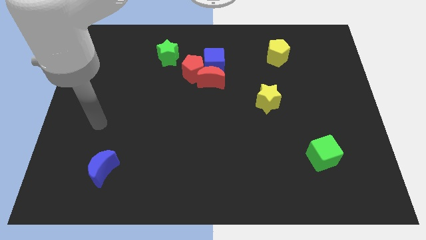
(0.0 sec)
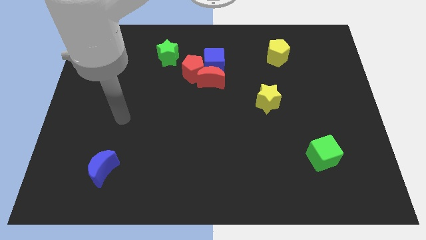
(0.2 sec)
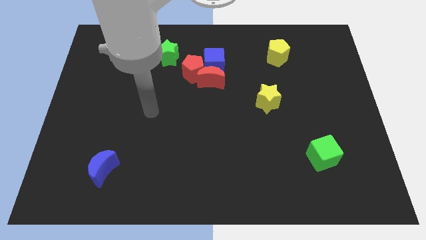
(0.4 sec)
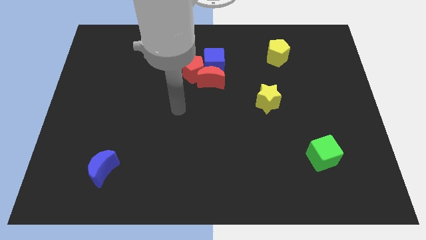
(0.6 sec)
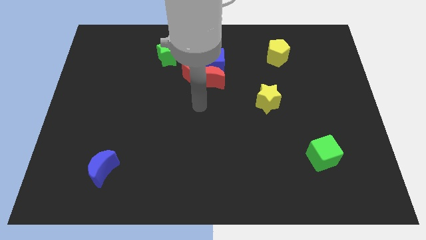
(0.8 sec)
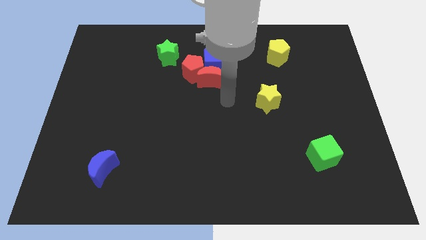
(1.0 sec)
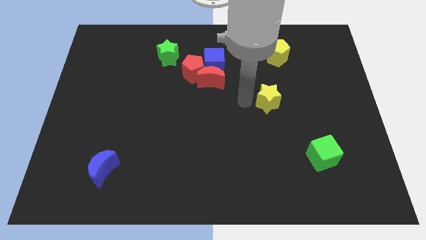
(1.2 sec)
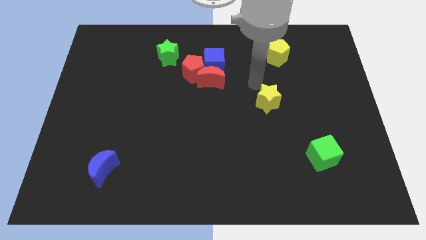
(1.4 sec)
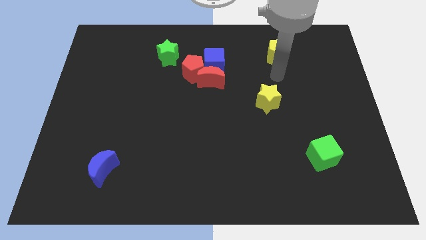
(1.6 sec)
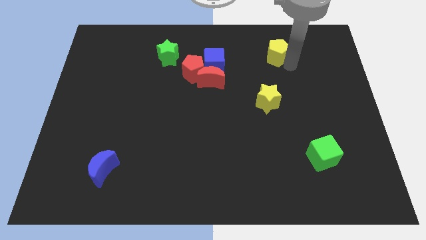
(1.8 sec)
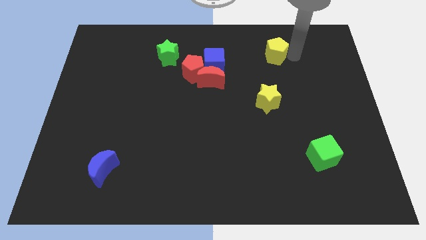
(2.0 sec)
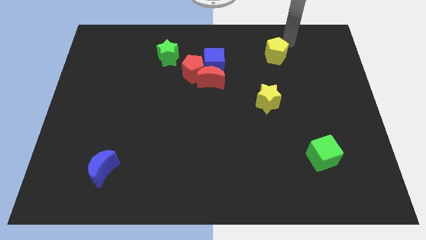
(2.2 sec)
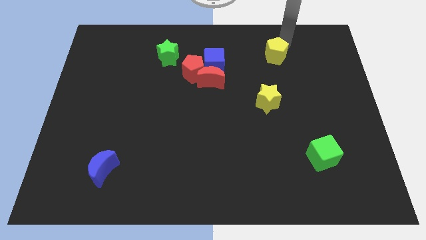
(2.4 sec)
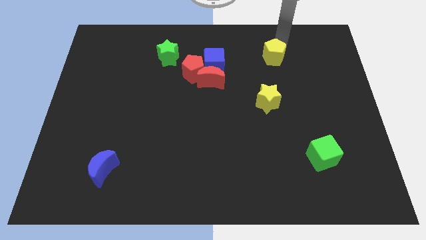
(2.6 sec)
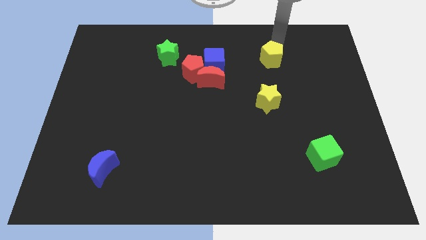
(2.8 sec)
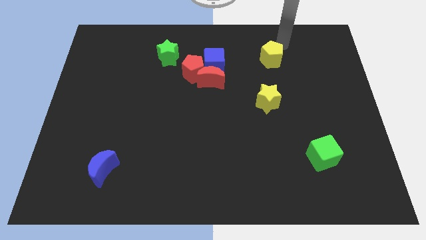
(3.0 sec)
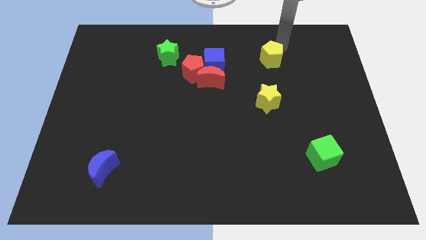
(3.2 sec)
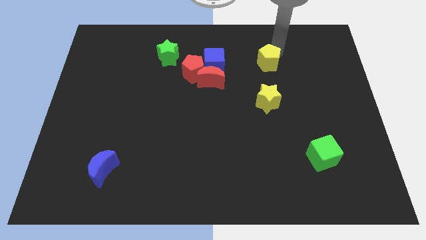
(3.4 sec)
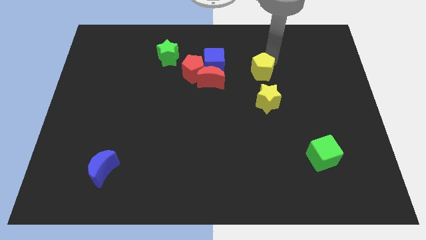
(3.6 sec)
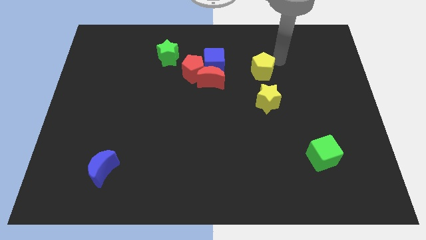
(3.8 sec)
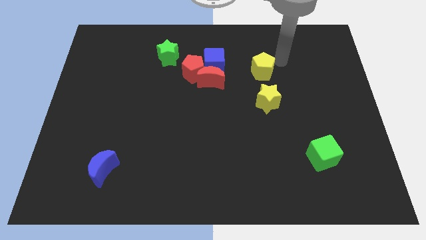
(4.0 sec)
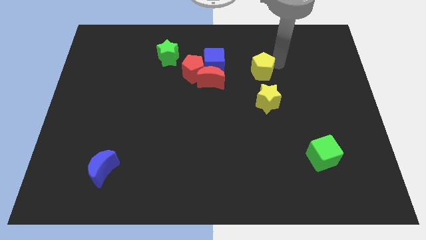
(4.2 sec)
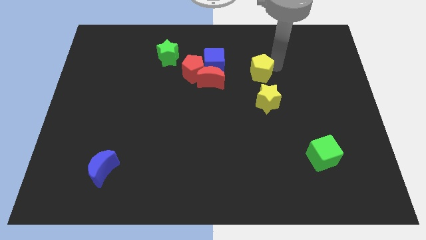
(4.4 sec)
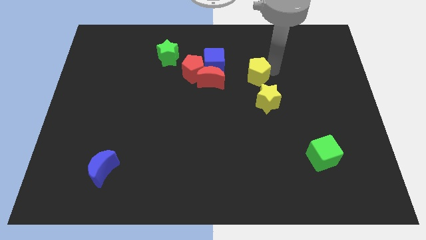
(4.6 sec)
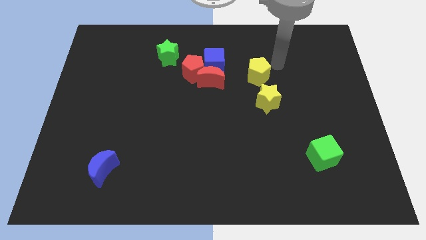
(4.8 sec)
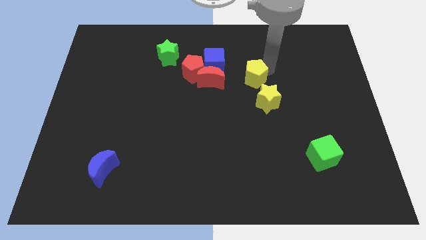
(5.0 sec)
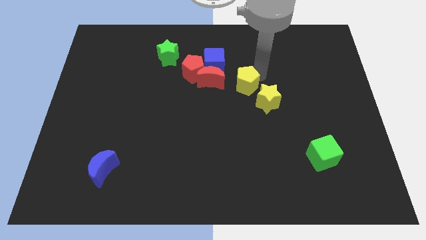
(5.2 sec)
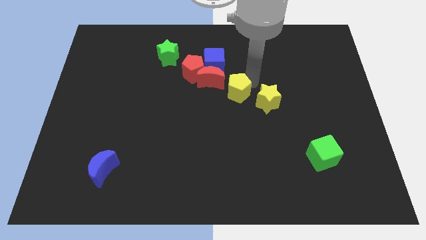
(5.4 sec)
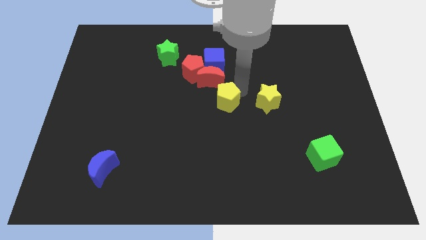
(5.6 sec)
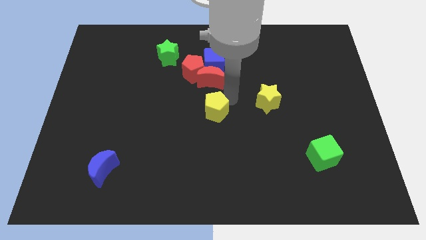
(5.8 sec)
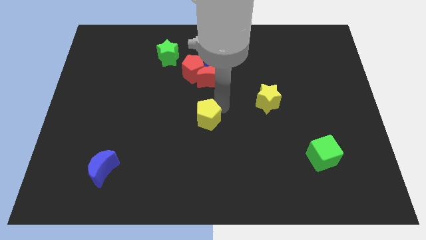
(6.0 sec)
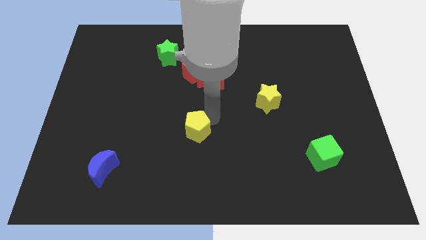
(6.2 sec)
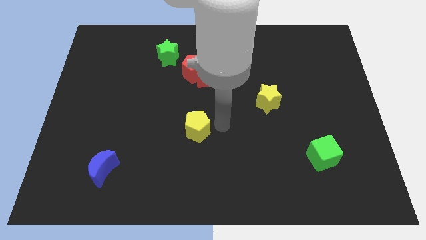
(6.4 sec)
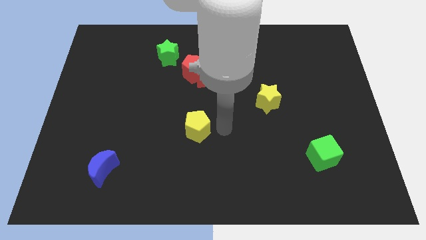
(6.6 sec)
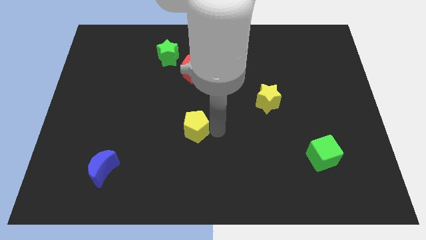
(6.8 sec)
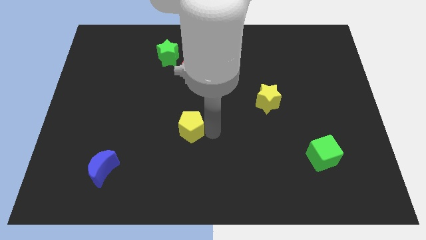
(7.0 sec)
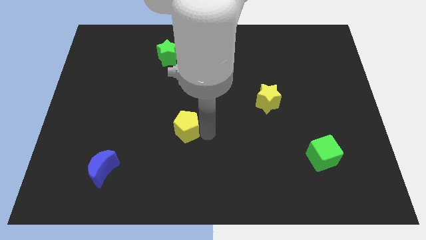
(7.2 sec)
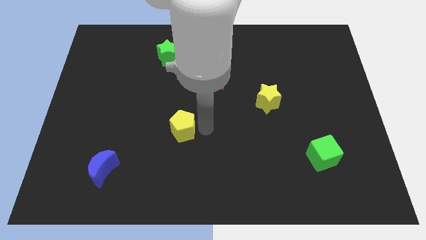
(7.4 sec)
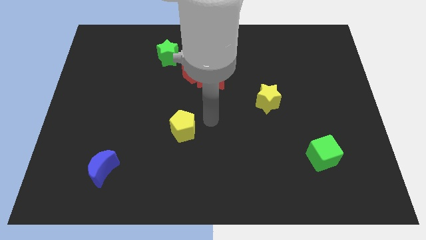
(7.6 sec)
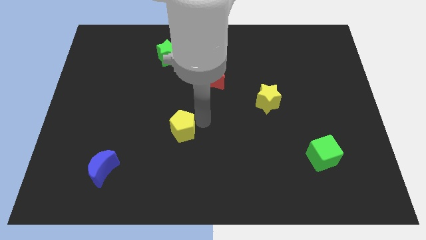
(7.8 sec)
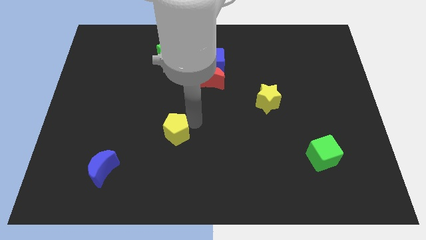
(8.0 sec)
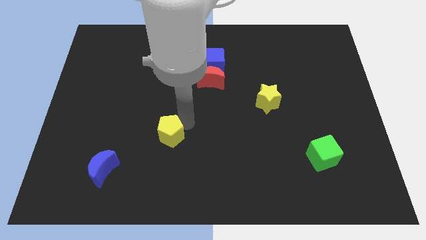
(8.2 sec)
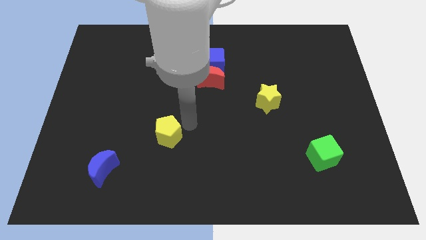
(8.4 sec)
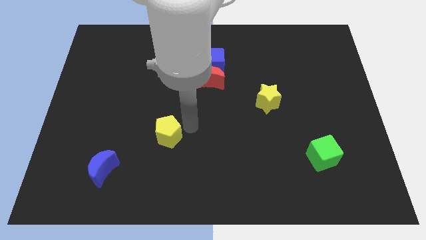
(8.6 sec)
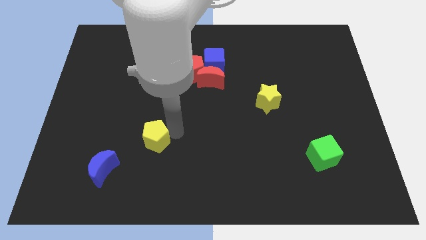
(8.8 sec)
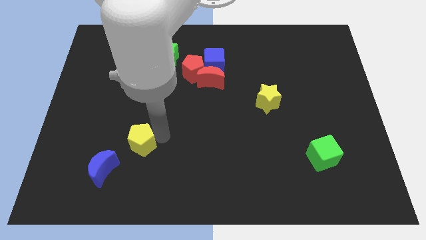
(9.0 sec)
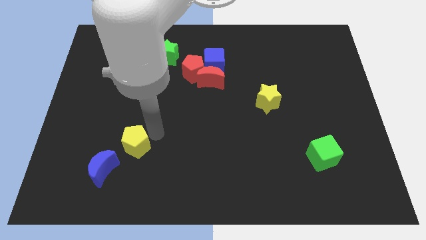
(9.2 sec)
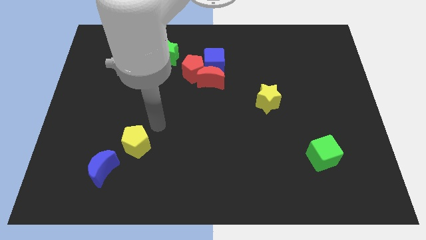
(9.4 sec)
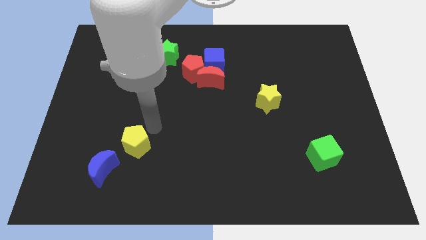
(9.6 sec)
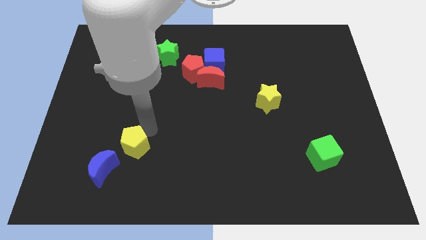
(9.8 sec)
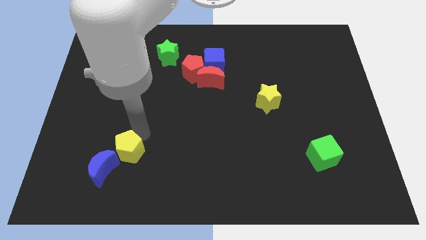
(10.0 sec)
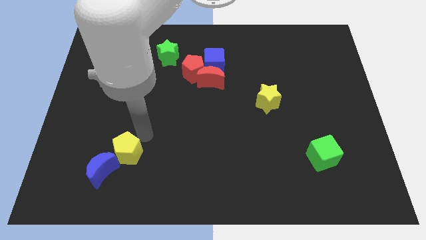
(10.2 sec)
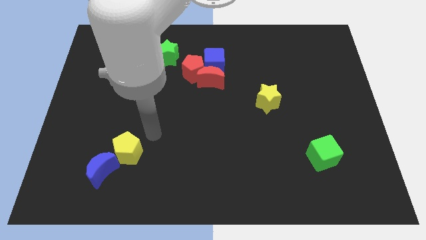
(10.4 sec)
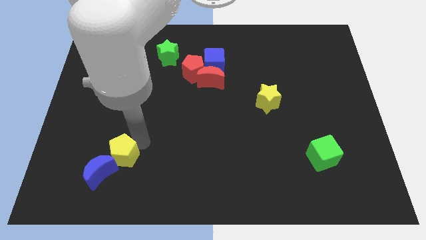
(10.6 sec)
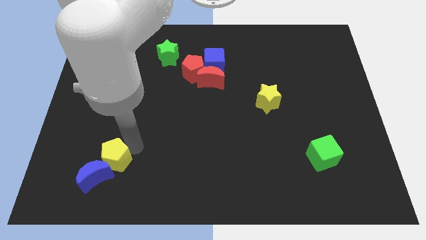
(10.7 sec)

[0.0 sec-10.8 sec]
push the yellow pentagon next to the blue moon

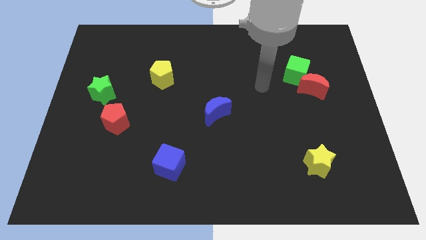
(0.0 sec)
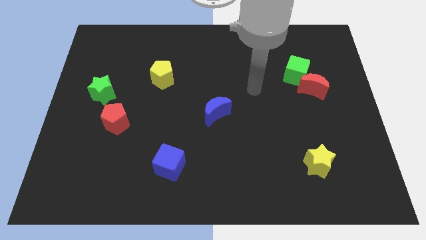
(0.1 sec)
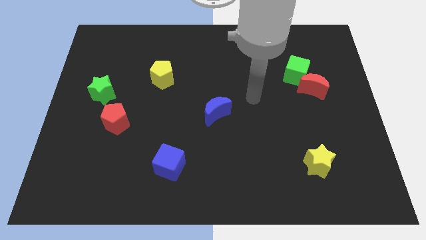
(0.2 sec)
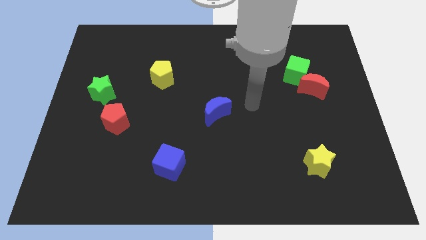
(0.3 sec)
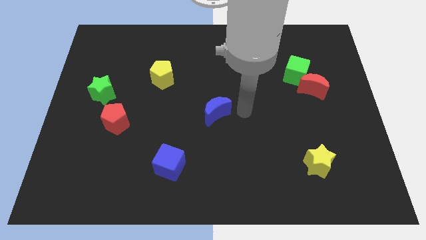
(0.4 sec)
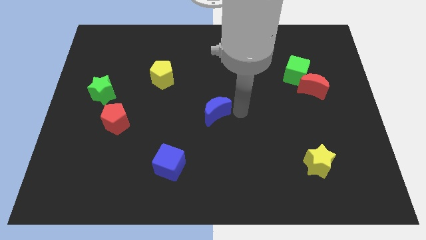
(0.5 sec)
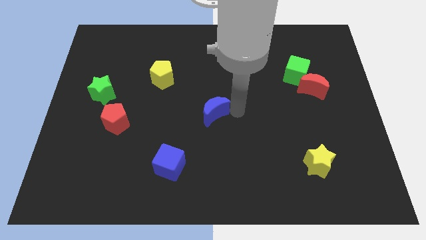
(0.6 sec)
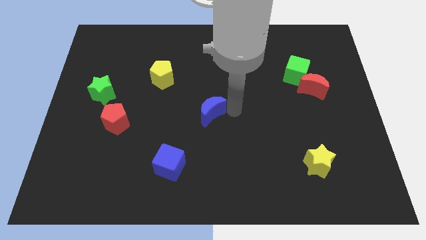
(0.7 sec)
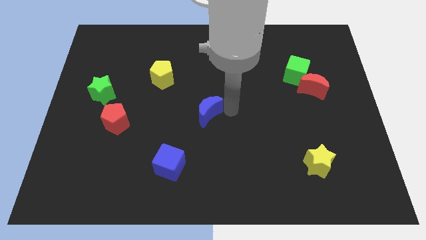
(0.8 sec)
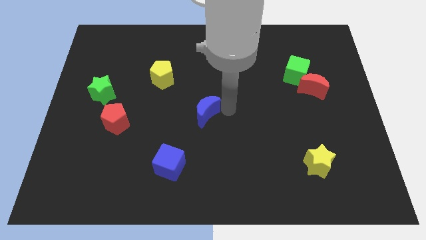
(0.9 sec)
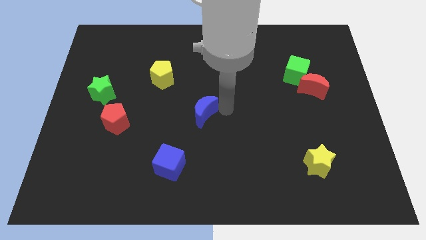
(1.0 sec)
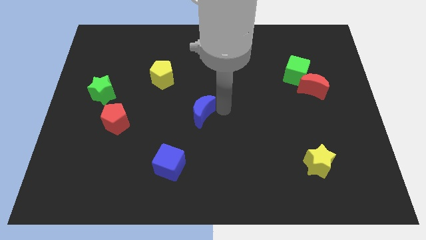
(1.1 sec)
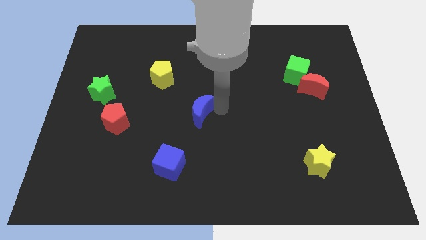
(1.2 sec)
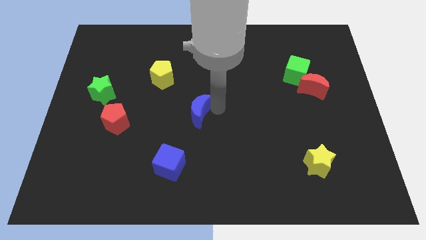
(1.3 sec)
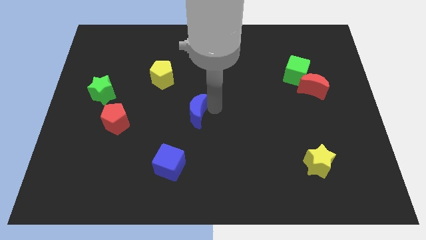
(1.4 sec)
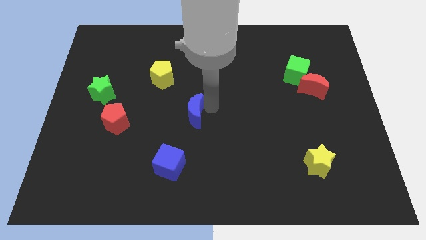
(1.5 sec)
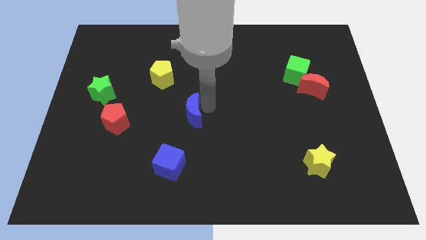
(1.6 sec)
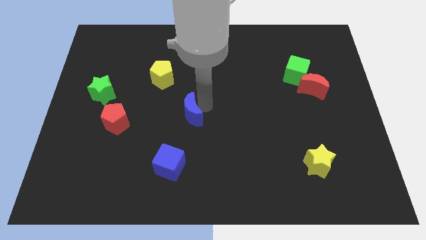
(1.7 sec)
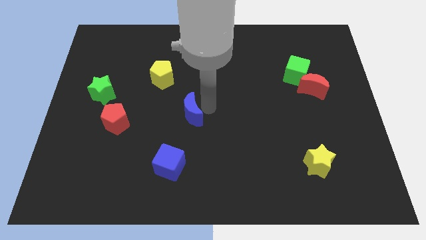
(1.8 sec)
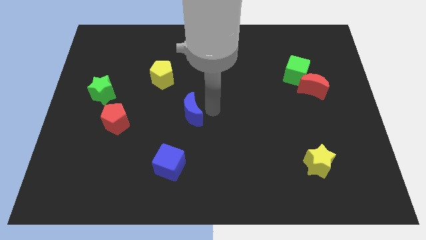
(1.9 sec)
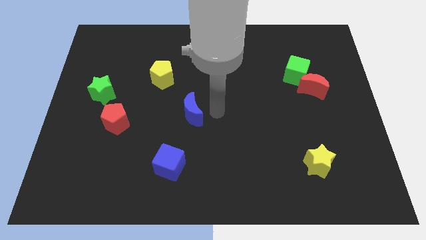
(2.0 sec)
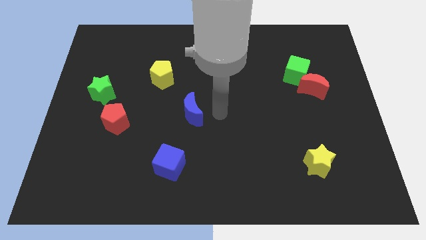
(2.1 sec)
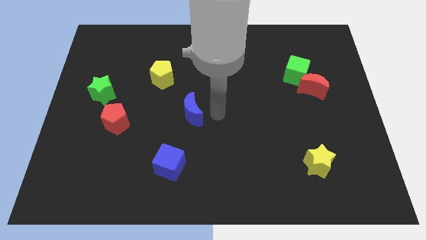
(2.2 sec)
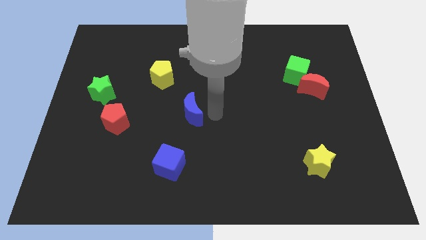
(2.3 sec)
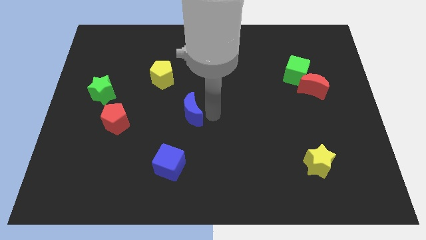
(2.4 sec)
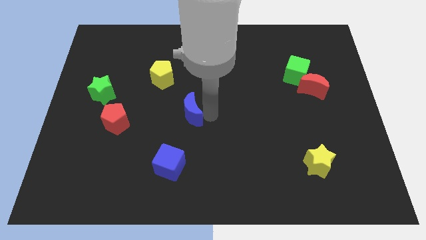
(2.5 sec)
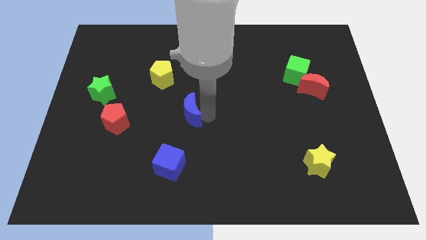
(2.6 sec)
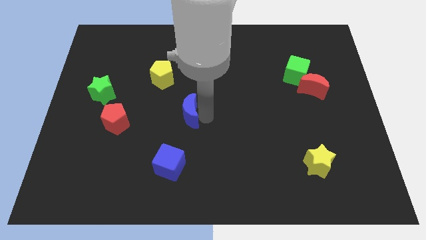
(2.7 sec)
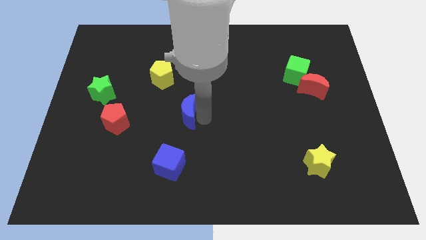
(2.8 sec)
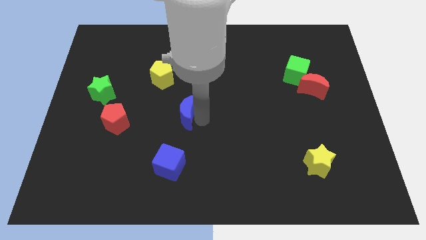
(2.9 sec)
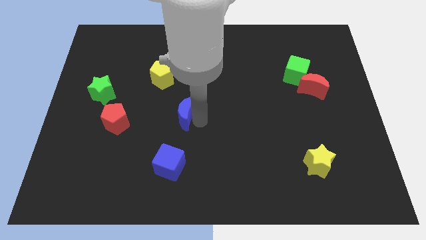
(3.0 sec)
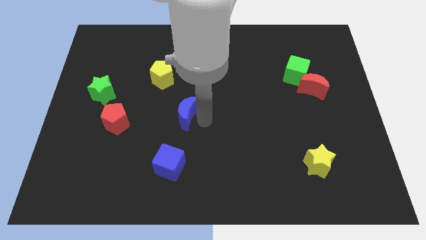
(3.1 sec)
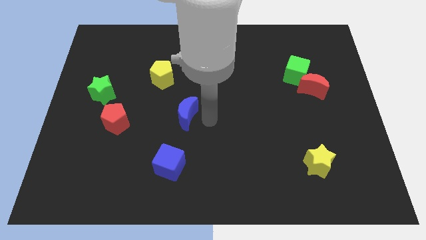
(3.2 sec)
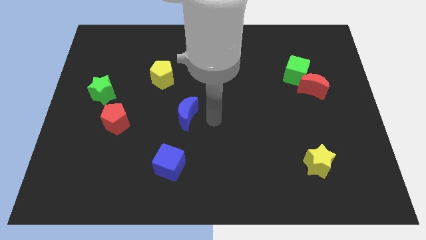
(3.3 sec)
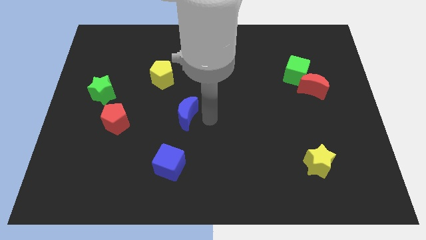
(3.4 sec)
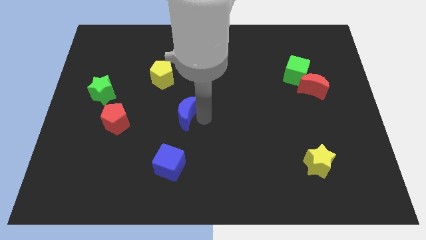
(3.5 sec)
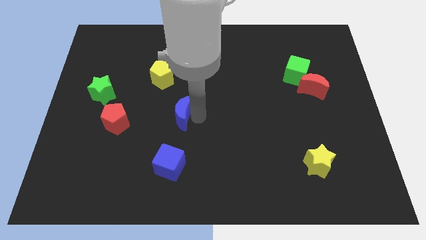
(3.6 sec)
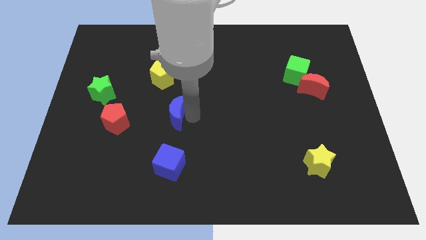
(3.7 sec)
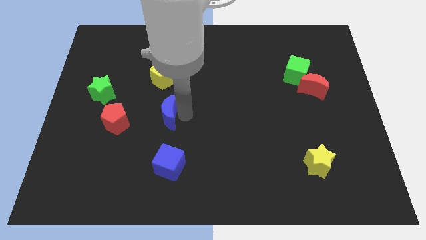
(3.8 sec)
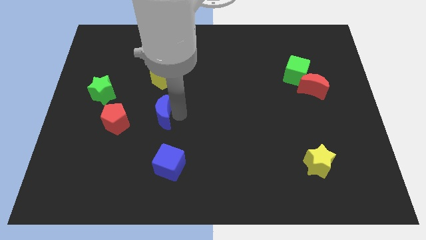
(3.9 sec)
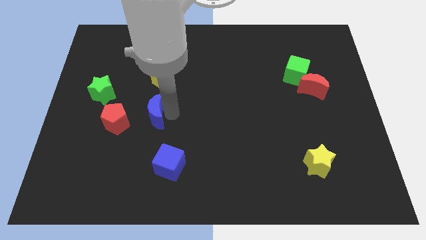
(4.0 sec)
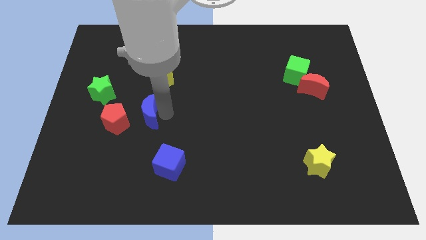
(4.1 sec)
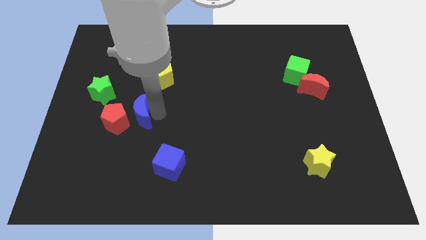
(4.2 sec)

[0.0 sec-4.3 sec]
slide the blue moon towards the red pentagon
